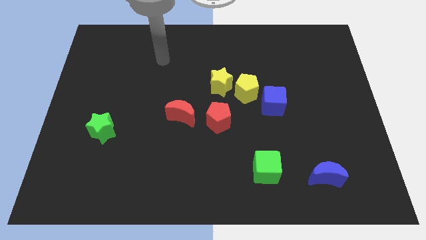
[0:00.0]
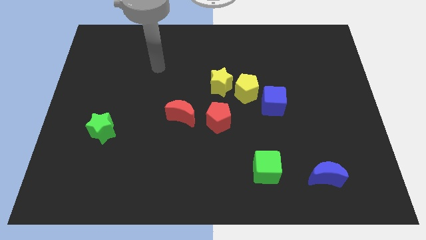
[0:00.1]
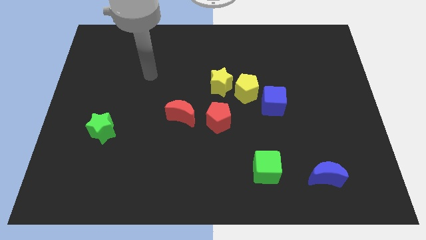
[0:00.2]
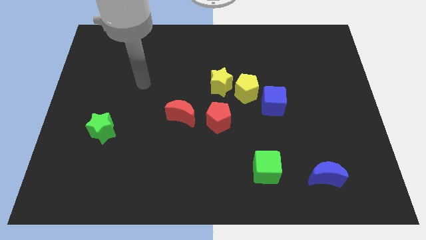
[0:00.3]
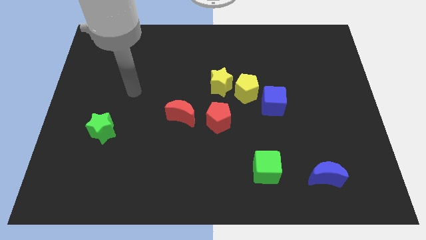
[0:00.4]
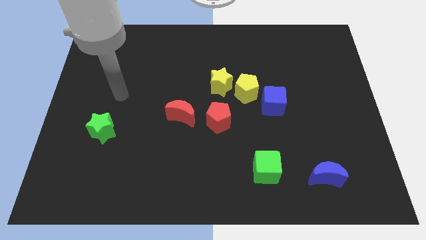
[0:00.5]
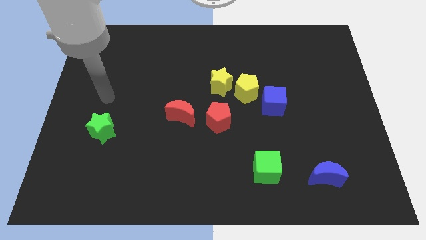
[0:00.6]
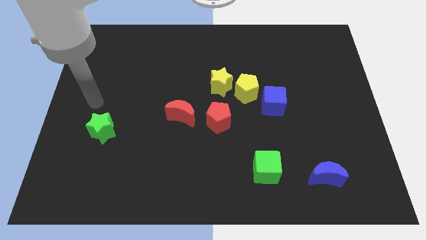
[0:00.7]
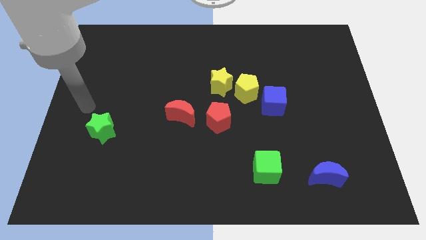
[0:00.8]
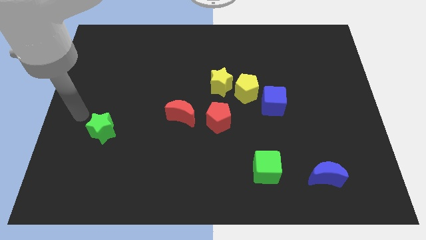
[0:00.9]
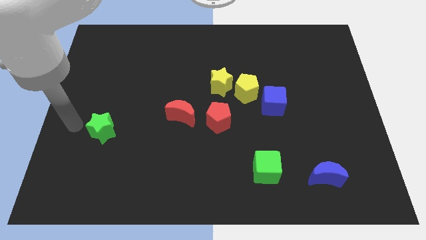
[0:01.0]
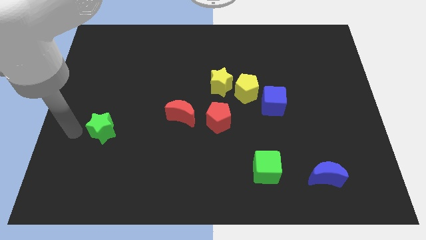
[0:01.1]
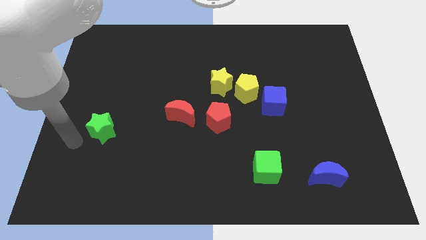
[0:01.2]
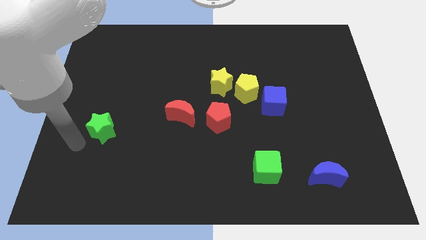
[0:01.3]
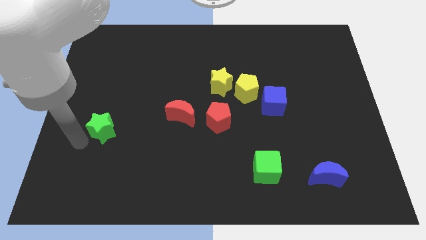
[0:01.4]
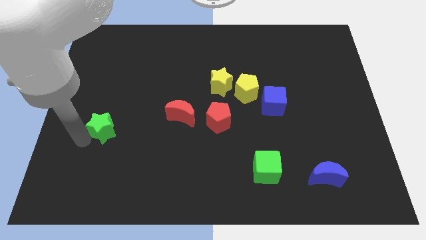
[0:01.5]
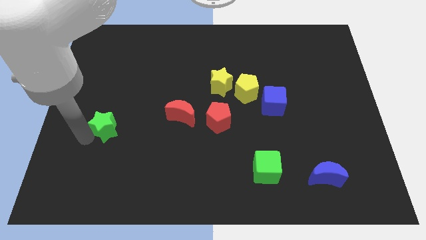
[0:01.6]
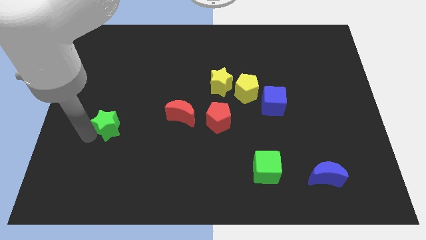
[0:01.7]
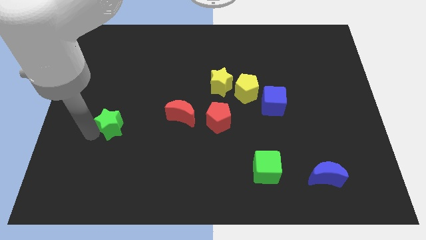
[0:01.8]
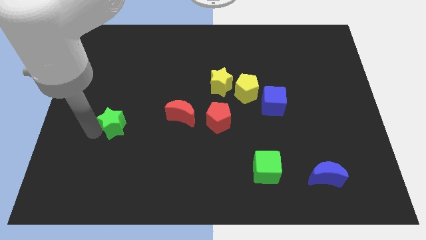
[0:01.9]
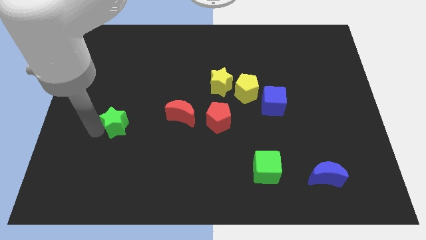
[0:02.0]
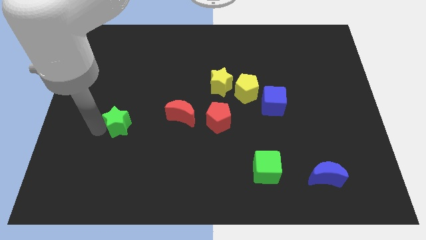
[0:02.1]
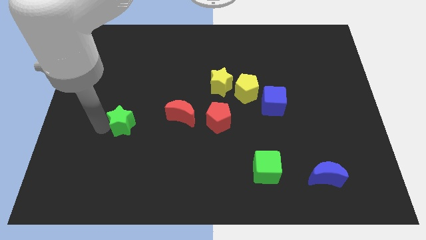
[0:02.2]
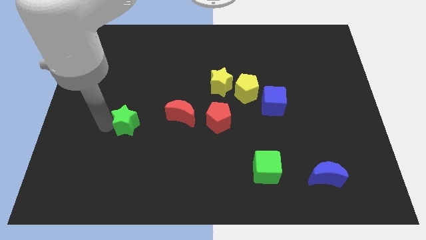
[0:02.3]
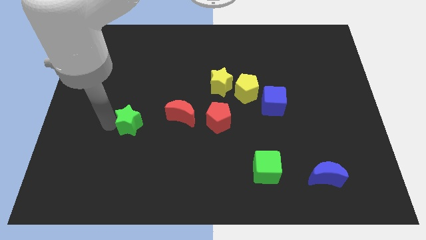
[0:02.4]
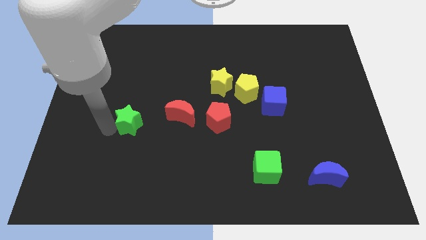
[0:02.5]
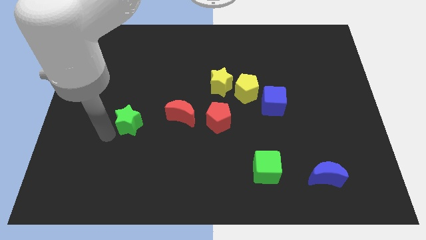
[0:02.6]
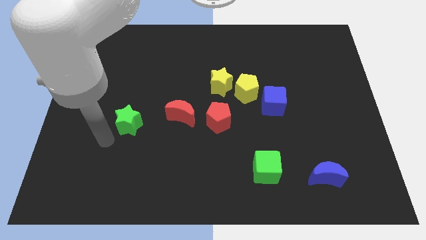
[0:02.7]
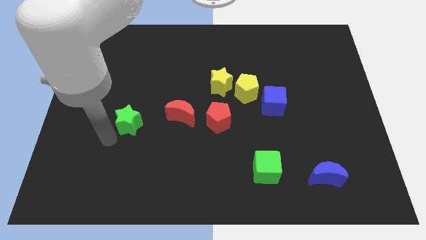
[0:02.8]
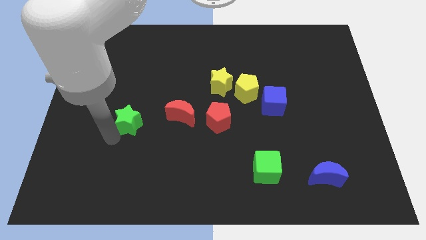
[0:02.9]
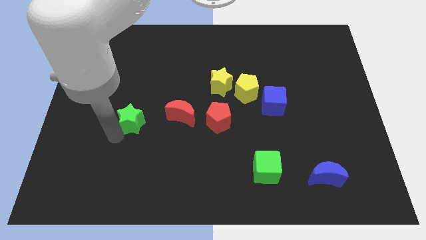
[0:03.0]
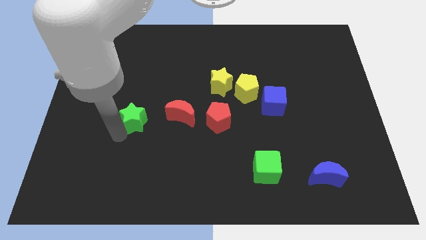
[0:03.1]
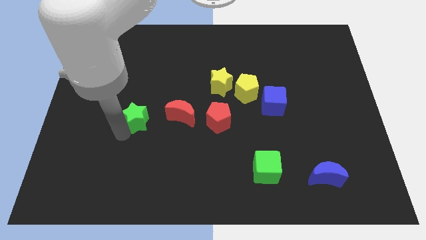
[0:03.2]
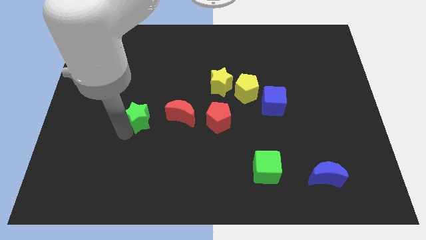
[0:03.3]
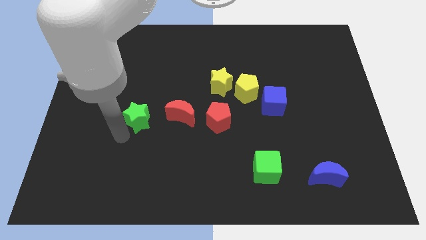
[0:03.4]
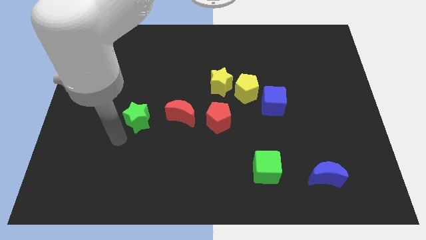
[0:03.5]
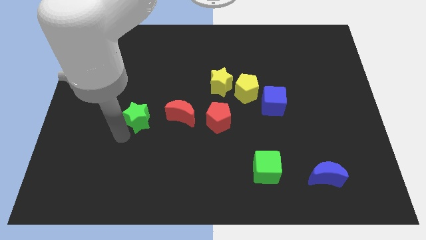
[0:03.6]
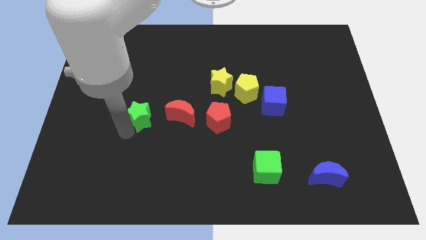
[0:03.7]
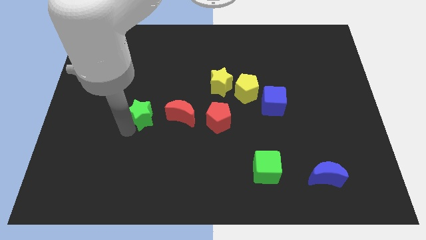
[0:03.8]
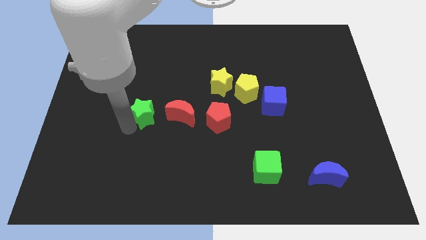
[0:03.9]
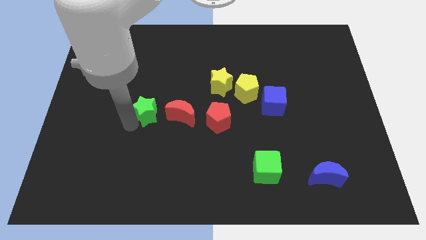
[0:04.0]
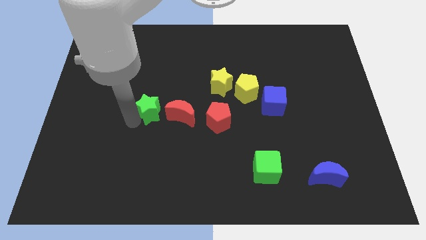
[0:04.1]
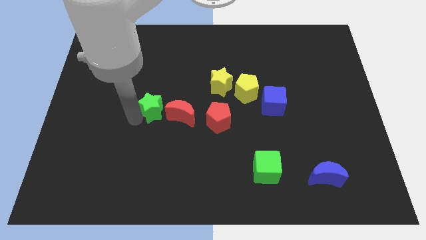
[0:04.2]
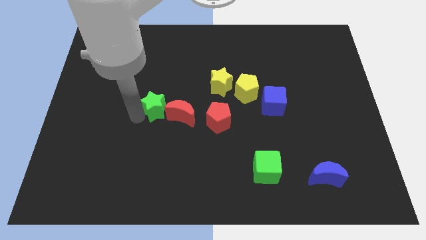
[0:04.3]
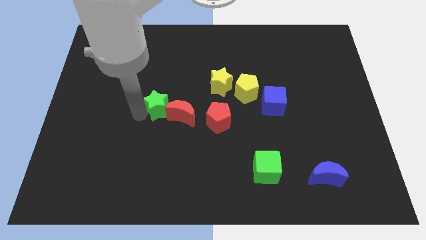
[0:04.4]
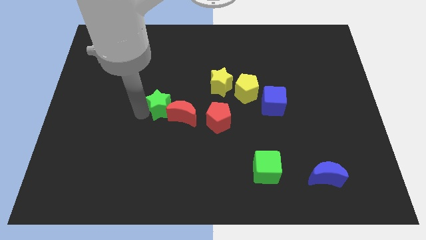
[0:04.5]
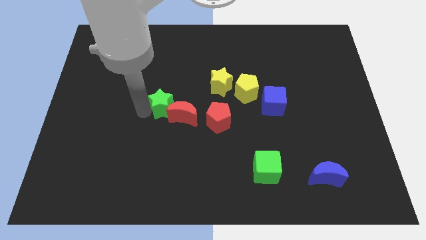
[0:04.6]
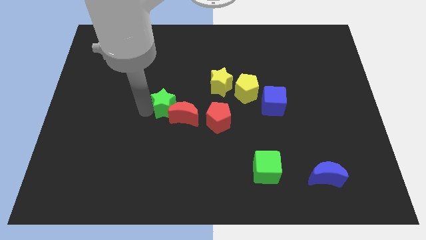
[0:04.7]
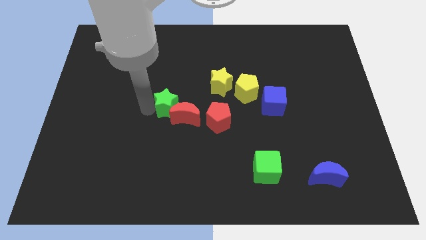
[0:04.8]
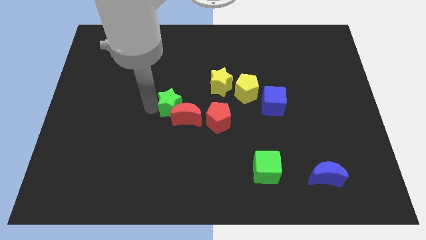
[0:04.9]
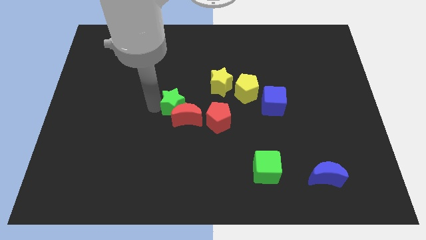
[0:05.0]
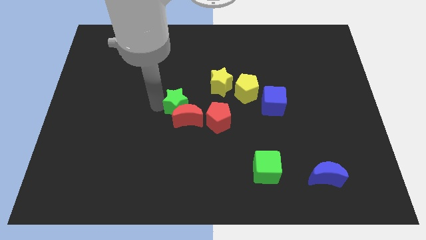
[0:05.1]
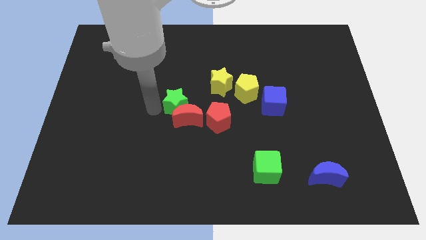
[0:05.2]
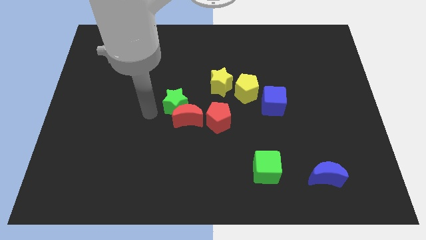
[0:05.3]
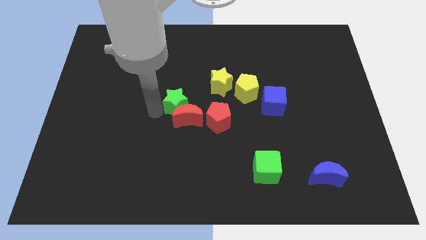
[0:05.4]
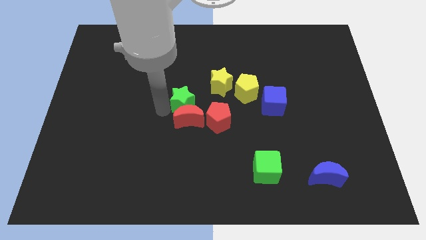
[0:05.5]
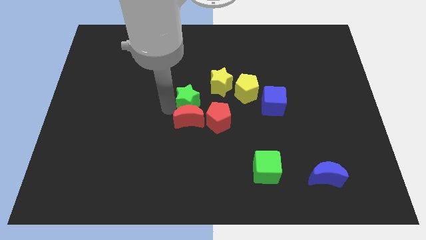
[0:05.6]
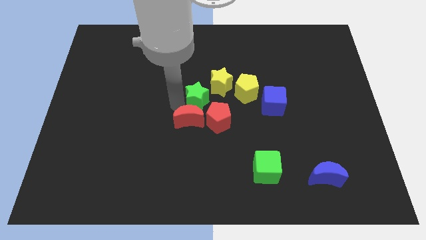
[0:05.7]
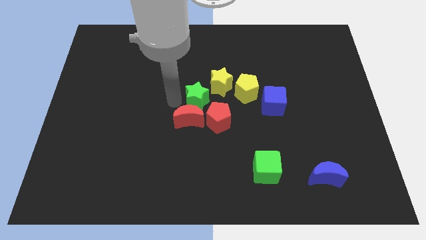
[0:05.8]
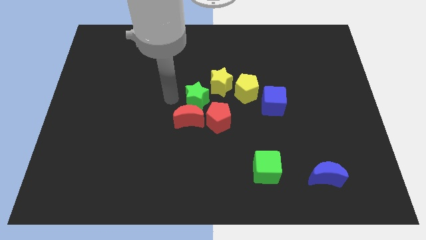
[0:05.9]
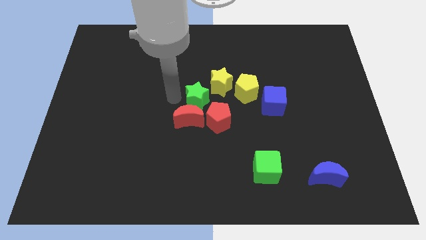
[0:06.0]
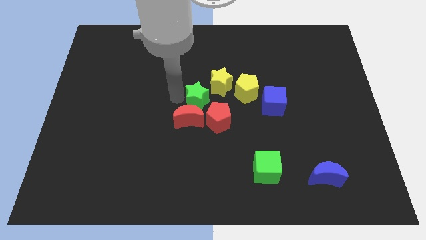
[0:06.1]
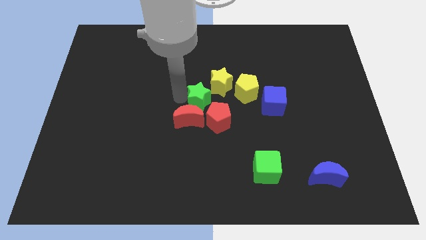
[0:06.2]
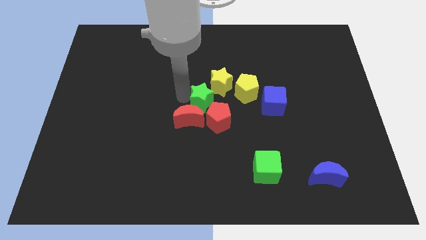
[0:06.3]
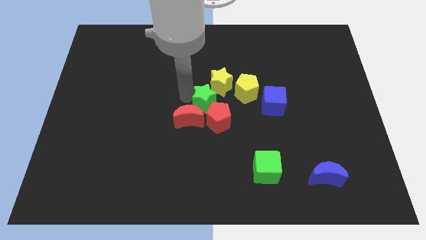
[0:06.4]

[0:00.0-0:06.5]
slide the green star to the left of the blue cube

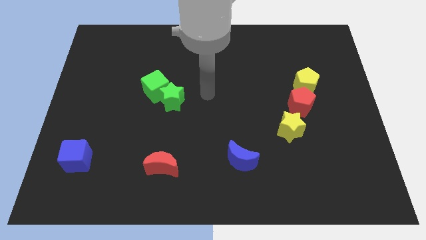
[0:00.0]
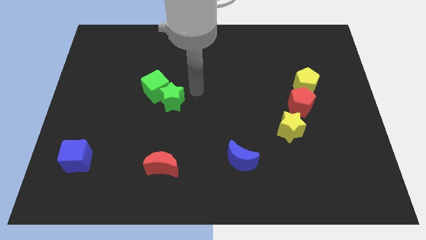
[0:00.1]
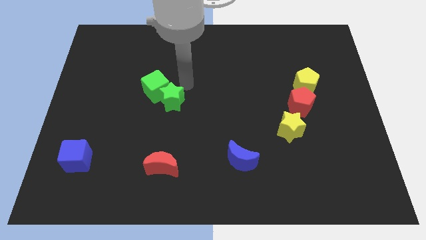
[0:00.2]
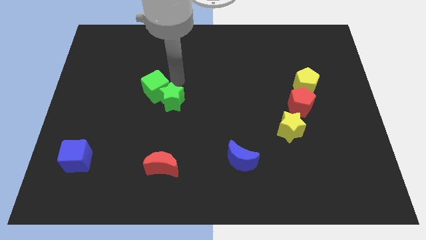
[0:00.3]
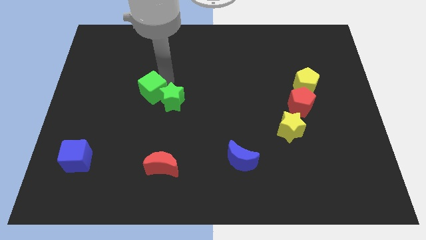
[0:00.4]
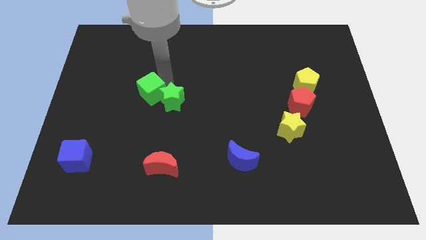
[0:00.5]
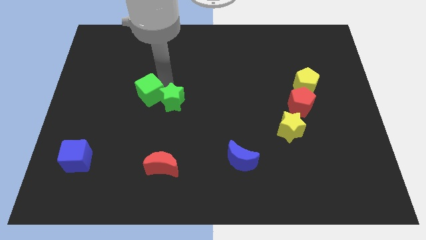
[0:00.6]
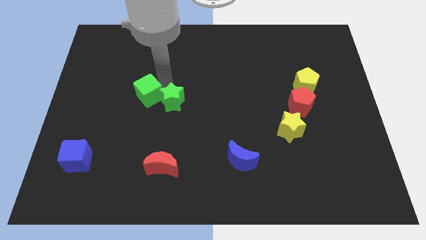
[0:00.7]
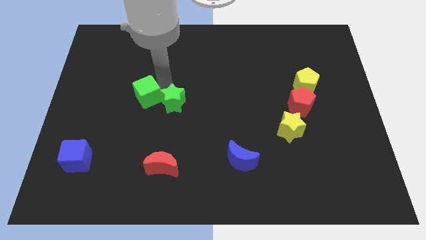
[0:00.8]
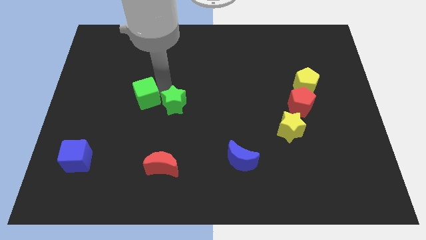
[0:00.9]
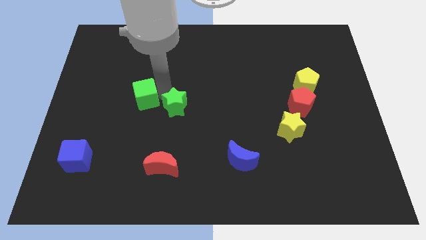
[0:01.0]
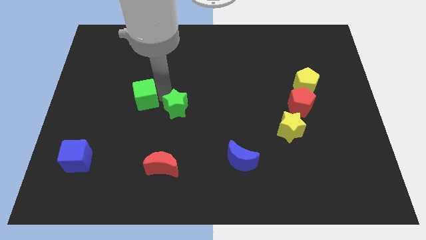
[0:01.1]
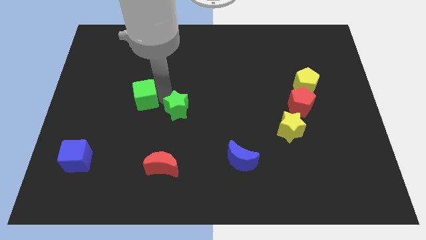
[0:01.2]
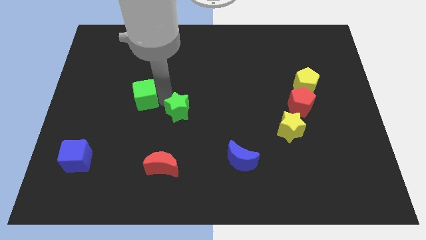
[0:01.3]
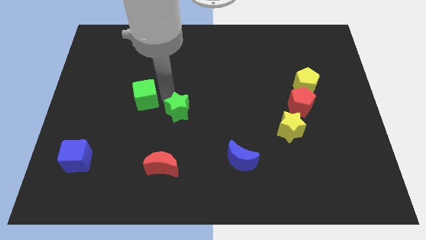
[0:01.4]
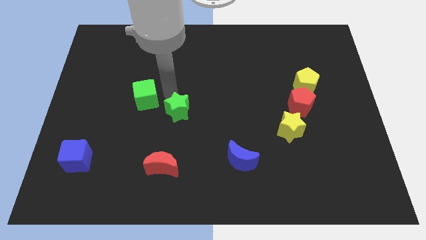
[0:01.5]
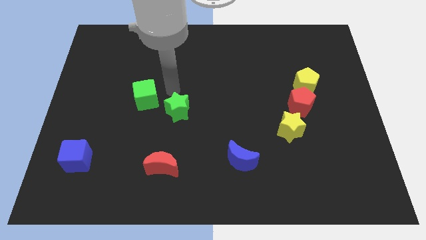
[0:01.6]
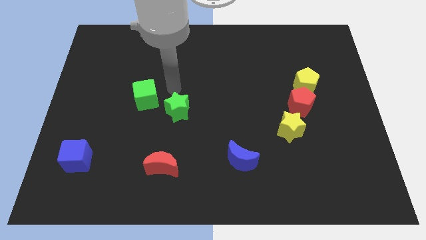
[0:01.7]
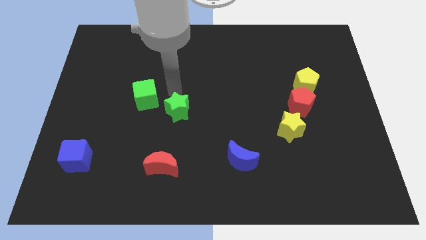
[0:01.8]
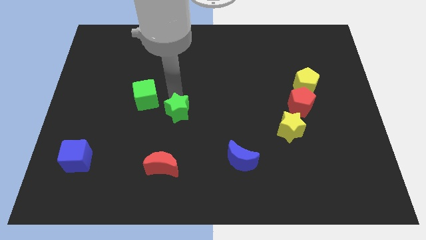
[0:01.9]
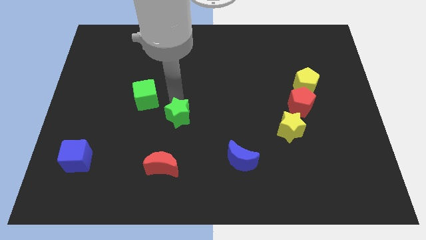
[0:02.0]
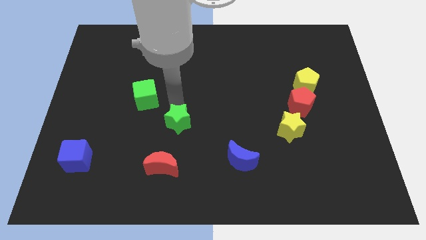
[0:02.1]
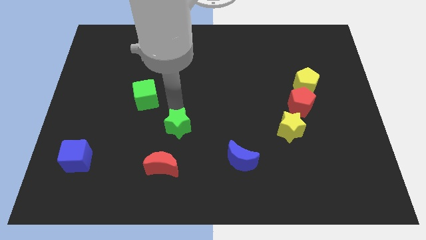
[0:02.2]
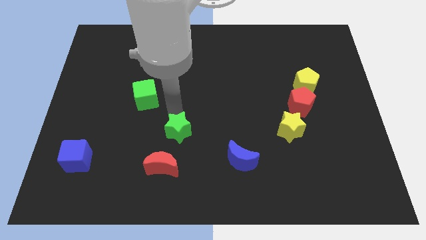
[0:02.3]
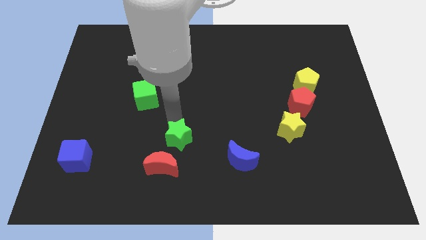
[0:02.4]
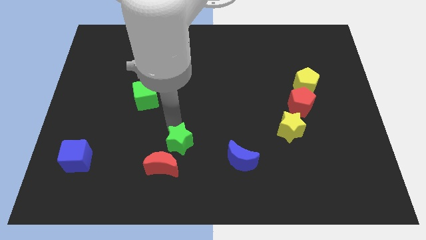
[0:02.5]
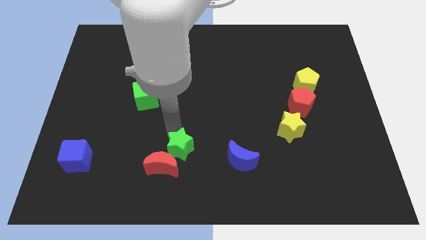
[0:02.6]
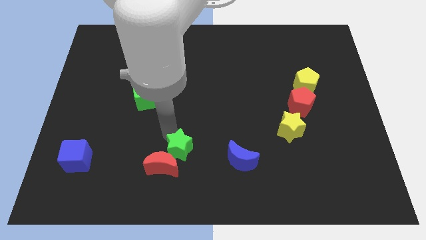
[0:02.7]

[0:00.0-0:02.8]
slide the green star to the right of the red moon
